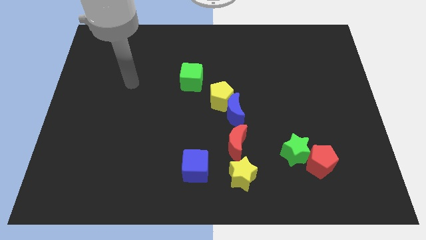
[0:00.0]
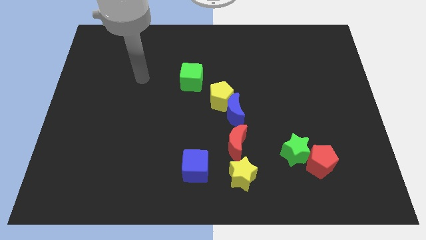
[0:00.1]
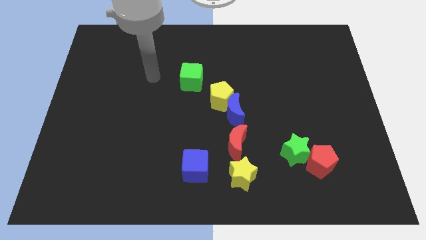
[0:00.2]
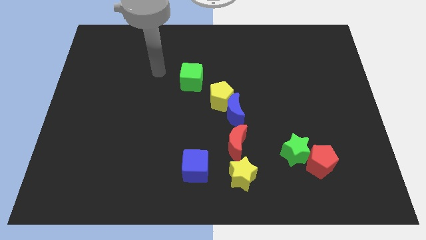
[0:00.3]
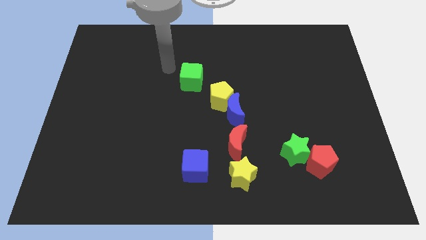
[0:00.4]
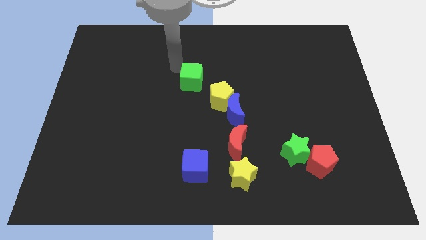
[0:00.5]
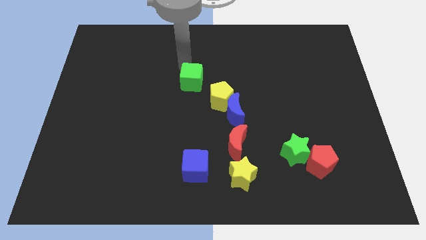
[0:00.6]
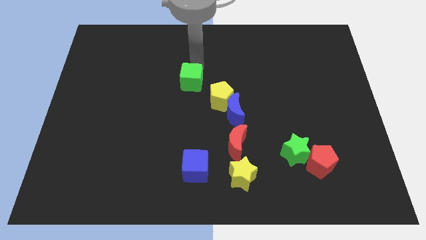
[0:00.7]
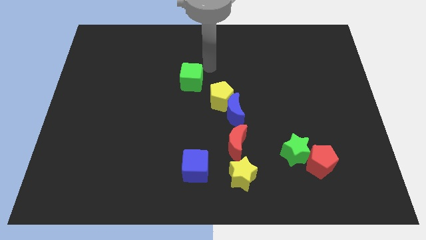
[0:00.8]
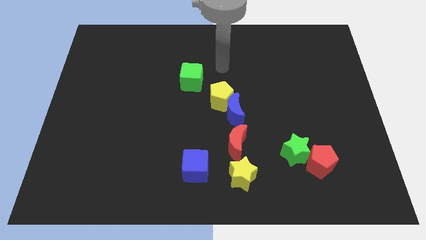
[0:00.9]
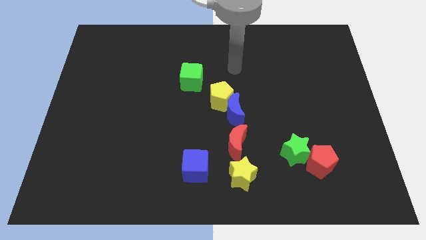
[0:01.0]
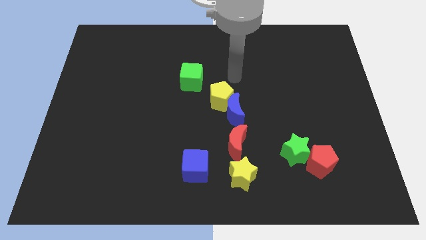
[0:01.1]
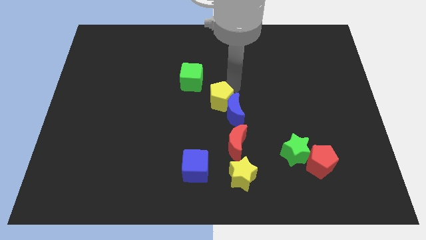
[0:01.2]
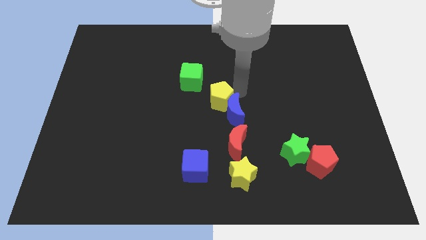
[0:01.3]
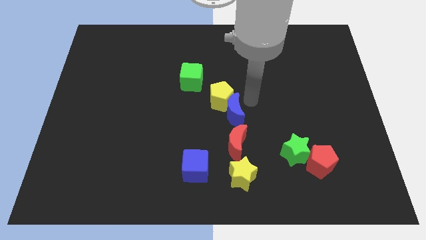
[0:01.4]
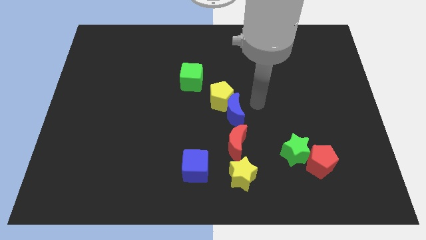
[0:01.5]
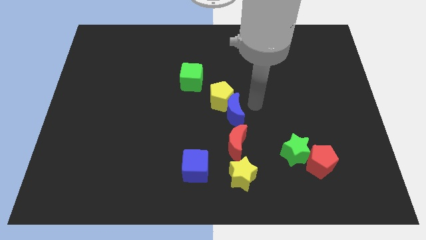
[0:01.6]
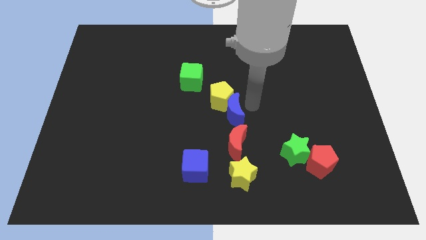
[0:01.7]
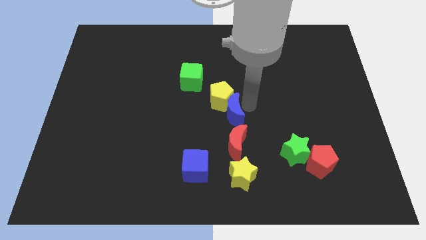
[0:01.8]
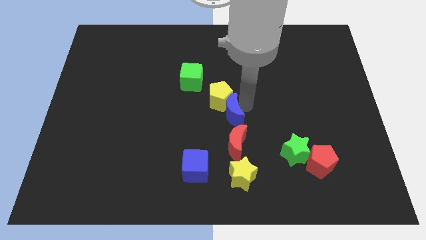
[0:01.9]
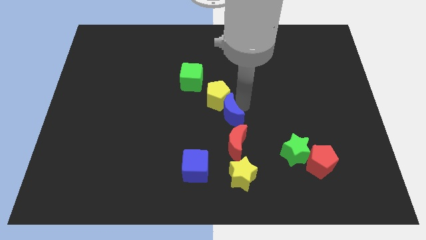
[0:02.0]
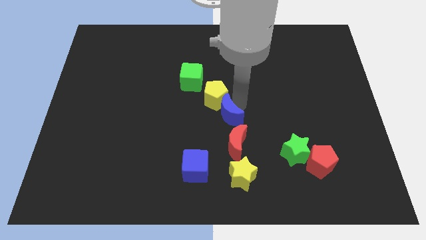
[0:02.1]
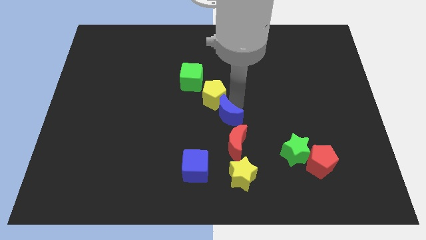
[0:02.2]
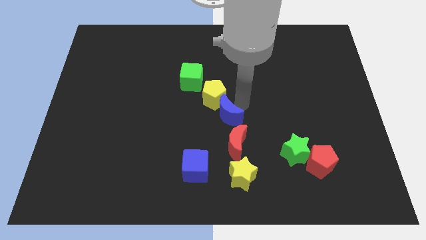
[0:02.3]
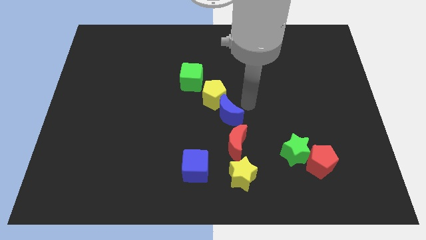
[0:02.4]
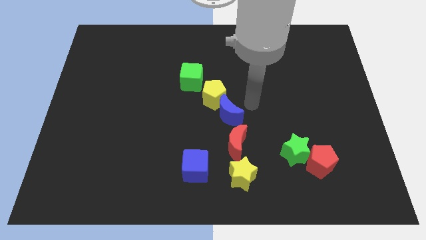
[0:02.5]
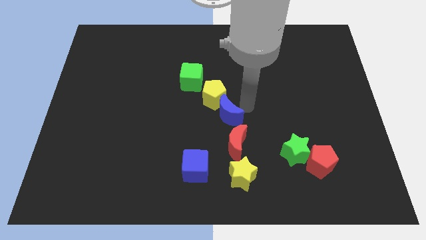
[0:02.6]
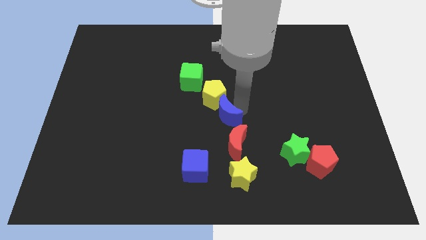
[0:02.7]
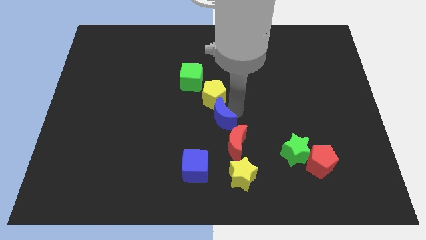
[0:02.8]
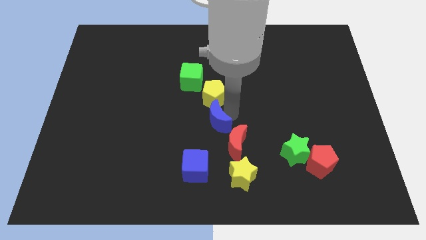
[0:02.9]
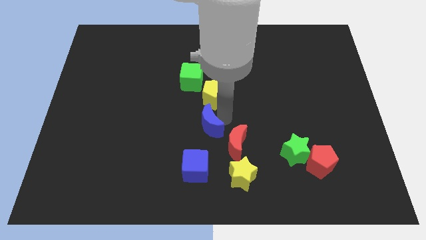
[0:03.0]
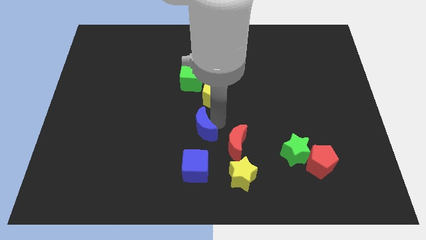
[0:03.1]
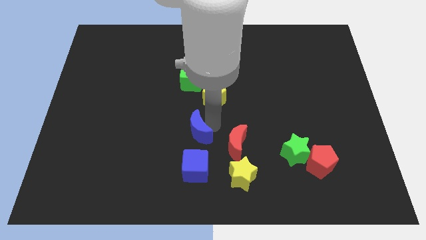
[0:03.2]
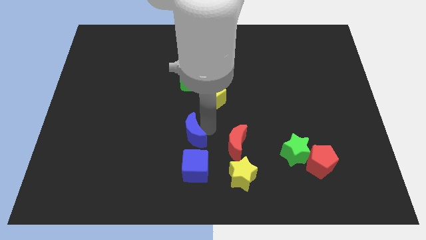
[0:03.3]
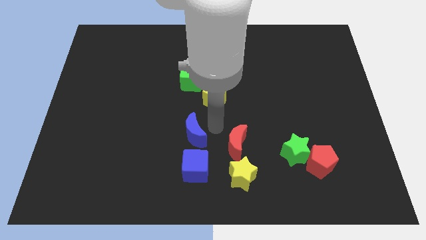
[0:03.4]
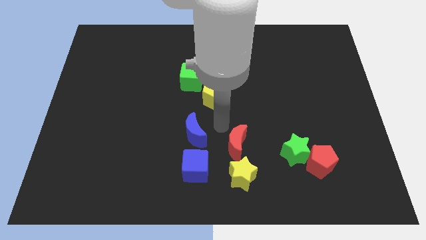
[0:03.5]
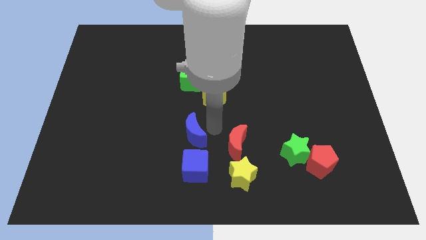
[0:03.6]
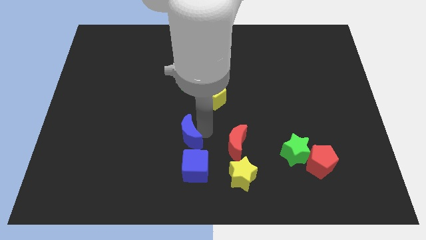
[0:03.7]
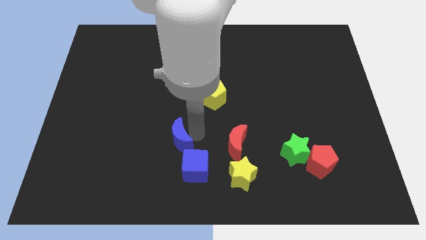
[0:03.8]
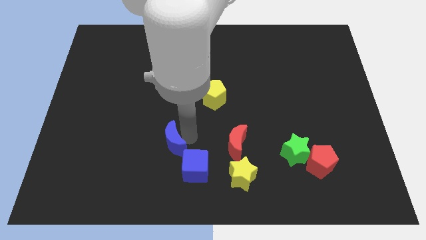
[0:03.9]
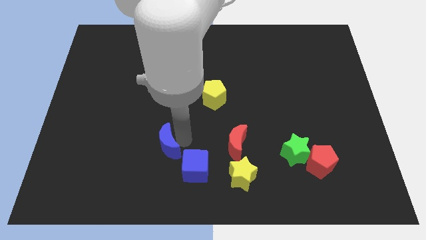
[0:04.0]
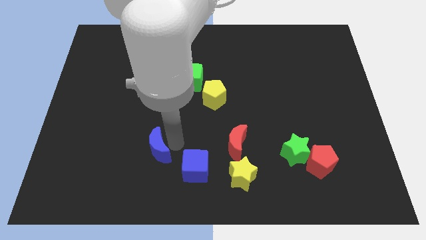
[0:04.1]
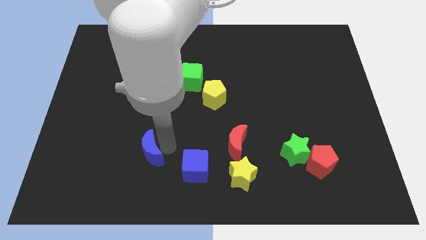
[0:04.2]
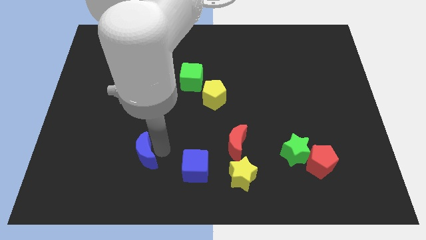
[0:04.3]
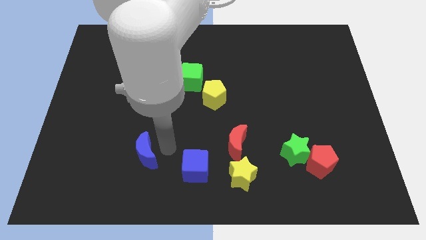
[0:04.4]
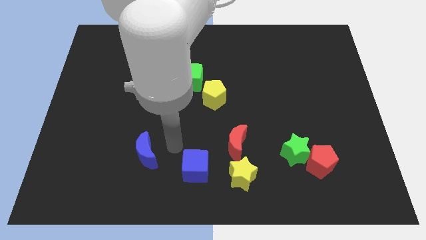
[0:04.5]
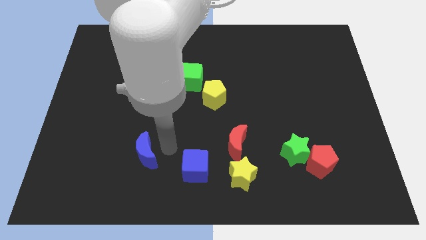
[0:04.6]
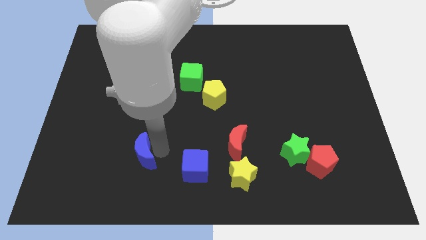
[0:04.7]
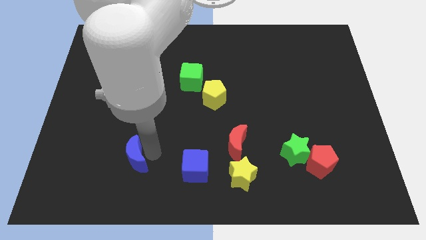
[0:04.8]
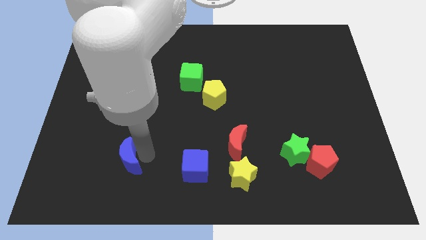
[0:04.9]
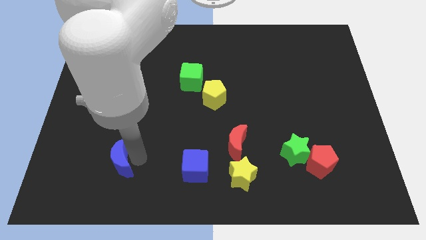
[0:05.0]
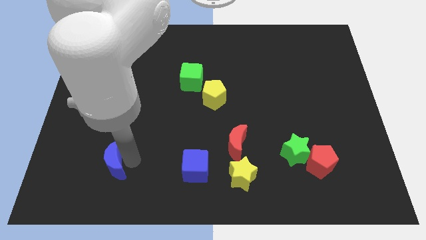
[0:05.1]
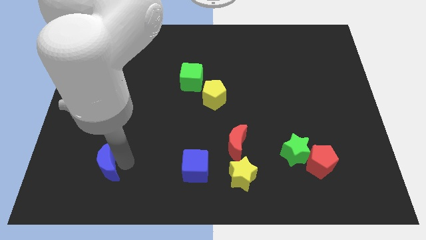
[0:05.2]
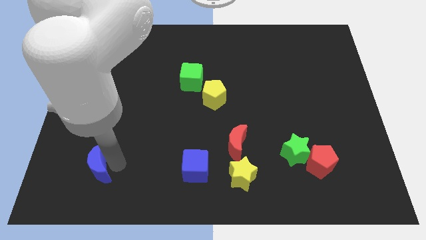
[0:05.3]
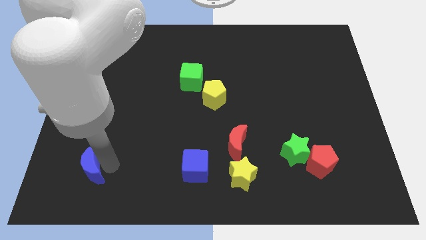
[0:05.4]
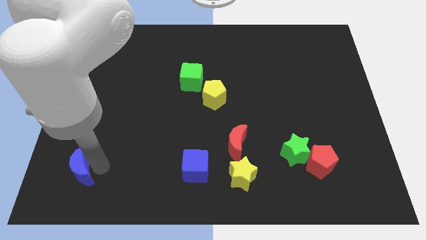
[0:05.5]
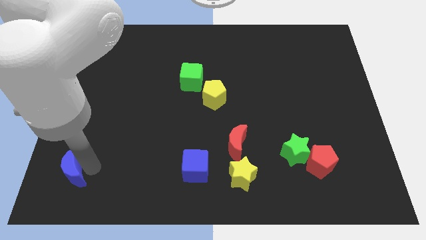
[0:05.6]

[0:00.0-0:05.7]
push the blue moon to the lower left corner
